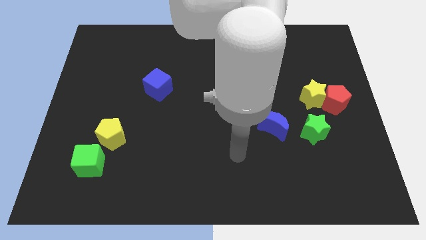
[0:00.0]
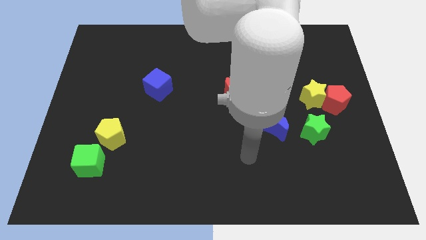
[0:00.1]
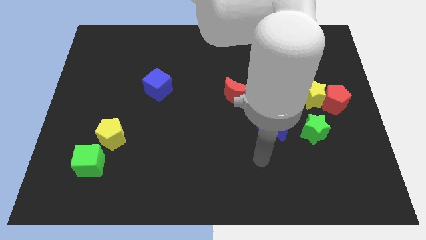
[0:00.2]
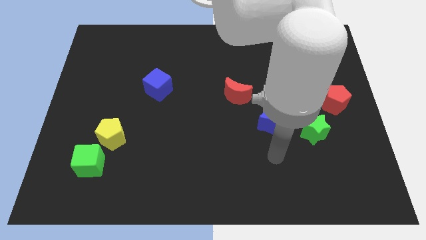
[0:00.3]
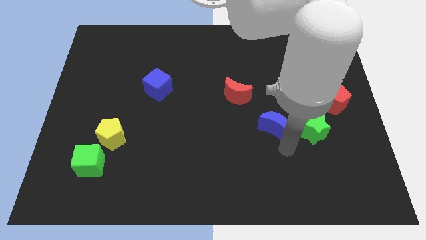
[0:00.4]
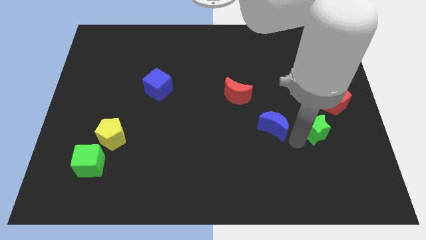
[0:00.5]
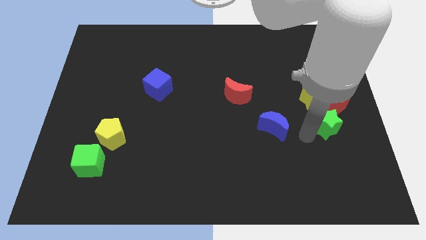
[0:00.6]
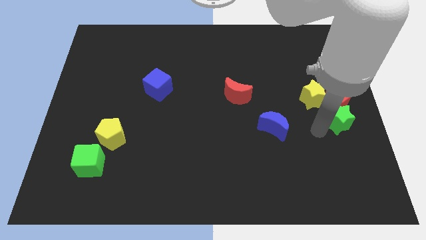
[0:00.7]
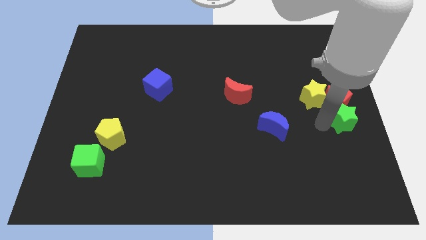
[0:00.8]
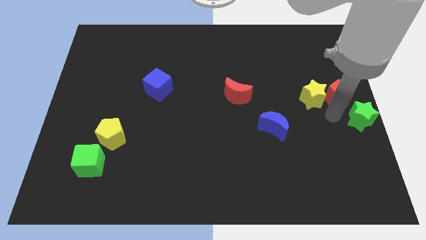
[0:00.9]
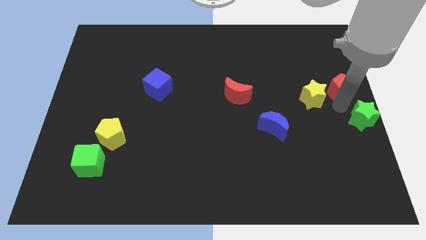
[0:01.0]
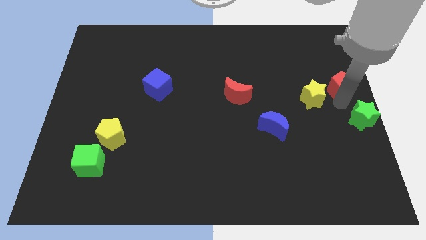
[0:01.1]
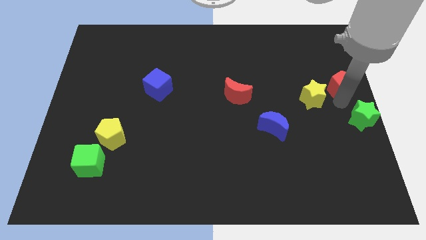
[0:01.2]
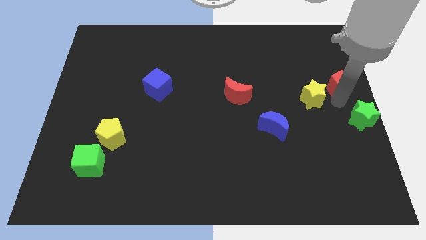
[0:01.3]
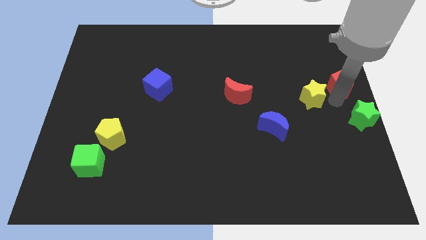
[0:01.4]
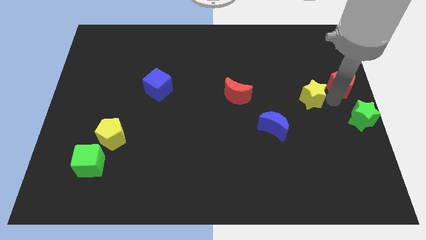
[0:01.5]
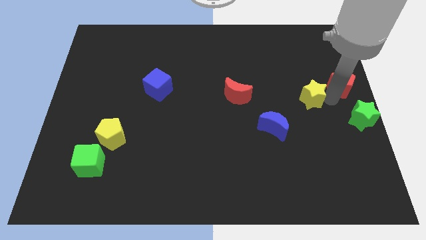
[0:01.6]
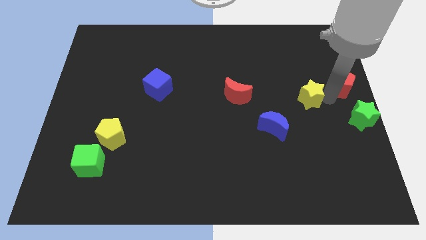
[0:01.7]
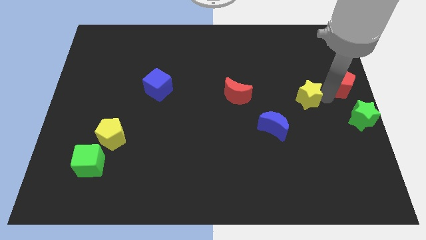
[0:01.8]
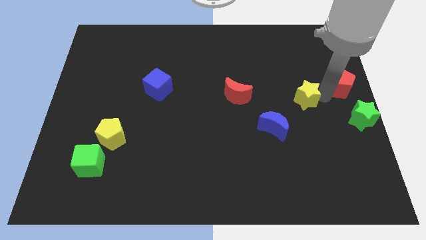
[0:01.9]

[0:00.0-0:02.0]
move the yellow star away from the red pentagon and green star

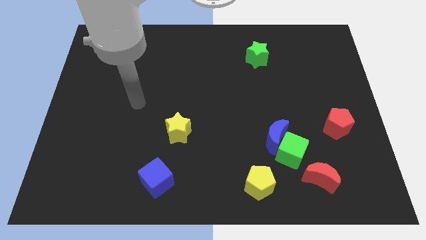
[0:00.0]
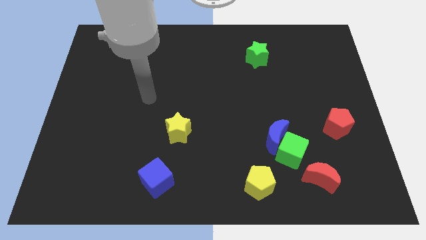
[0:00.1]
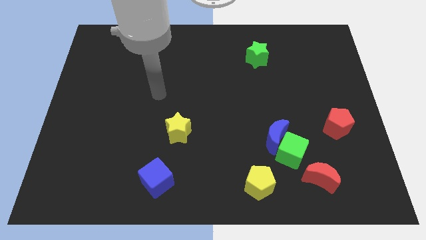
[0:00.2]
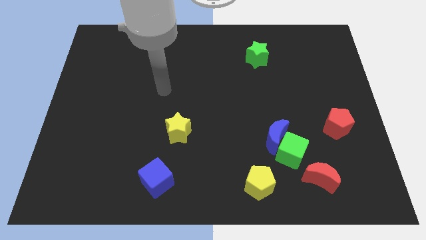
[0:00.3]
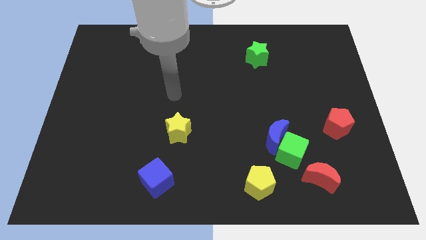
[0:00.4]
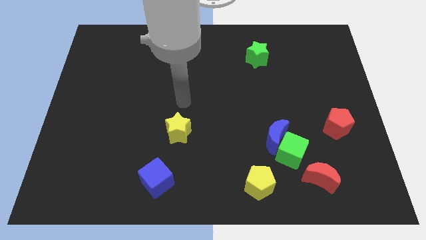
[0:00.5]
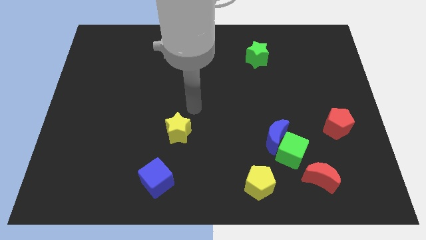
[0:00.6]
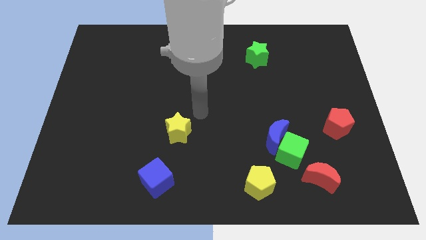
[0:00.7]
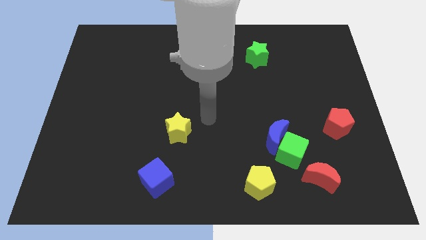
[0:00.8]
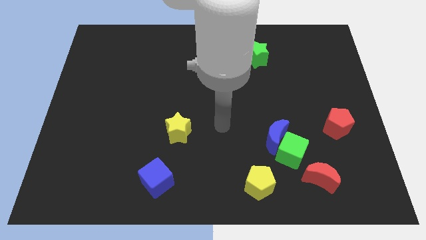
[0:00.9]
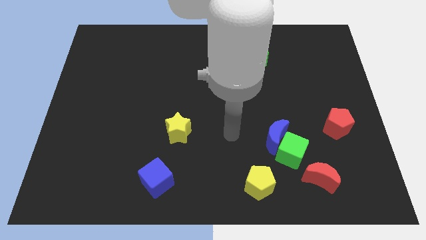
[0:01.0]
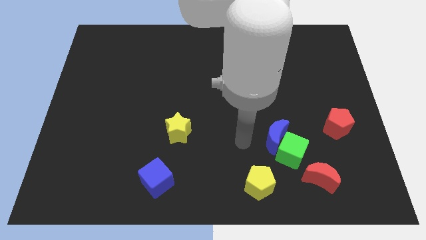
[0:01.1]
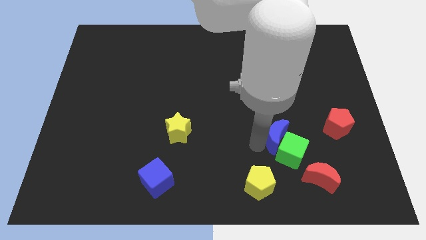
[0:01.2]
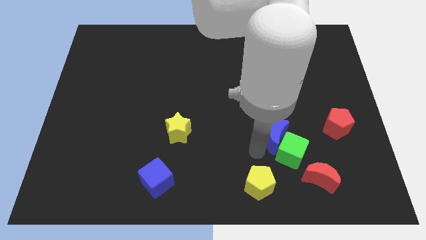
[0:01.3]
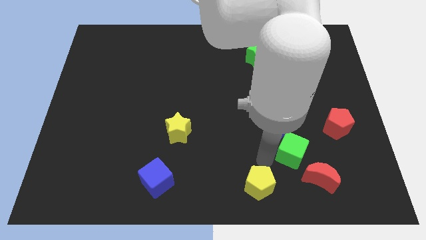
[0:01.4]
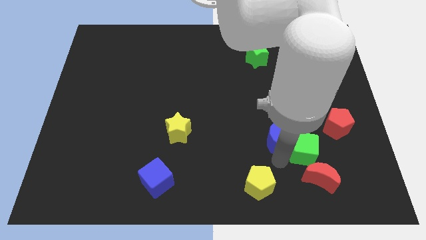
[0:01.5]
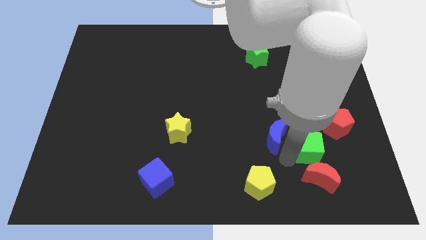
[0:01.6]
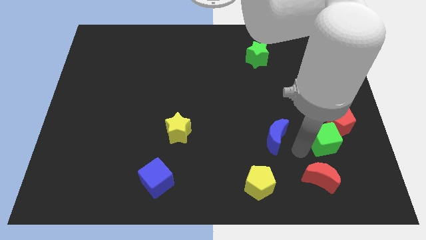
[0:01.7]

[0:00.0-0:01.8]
separate the blue moon from the green cube

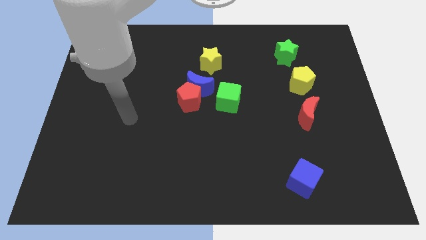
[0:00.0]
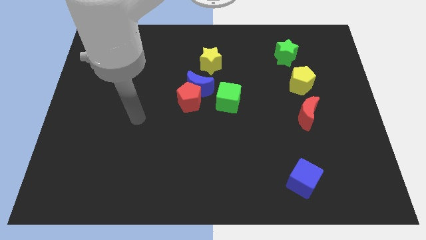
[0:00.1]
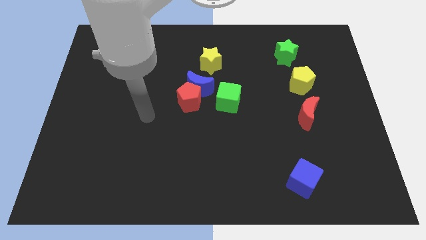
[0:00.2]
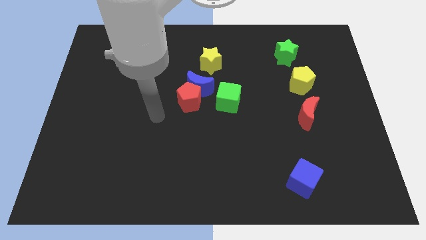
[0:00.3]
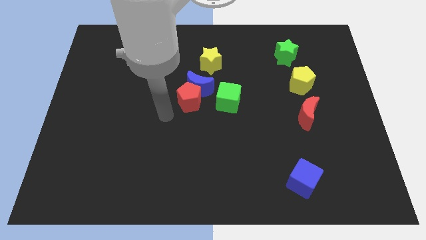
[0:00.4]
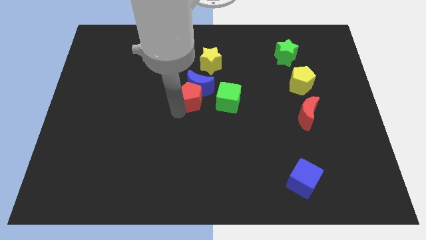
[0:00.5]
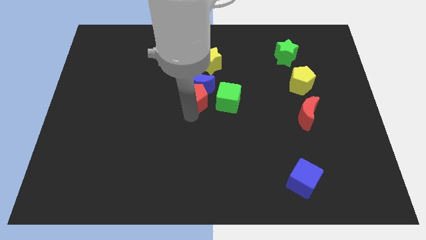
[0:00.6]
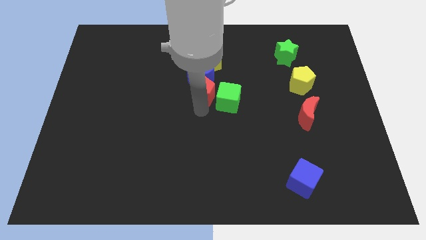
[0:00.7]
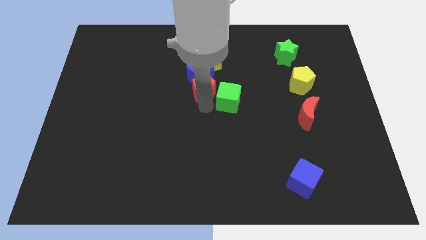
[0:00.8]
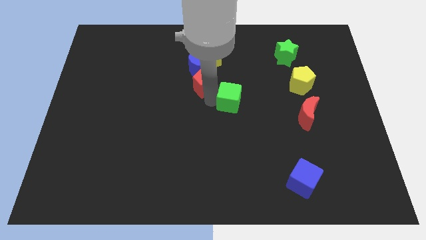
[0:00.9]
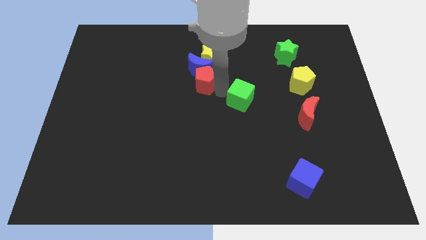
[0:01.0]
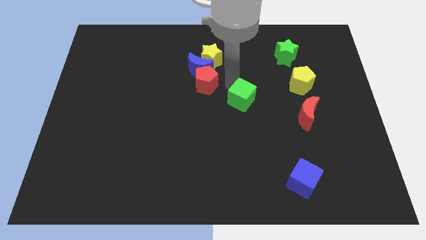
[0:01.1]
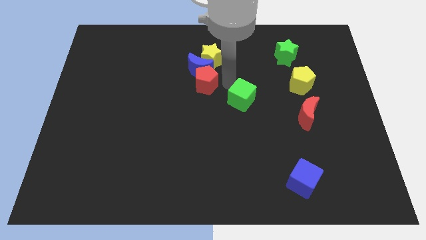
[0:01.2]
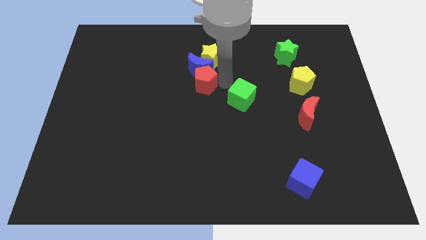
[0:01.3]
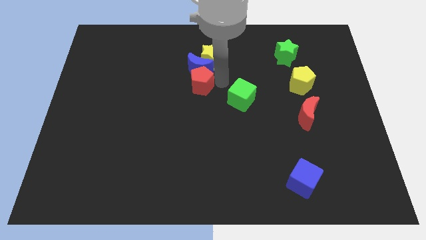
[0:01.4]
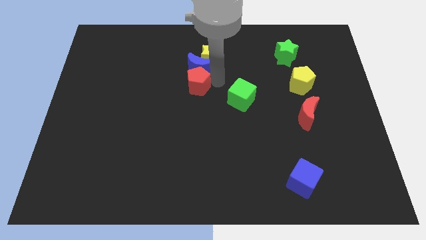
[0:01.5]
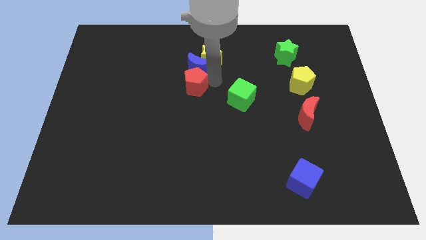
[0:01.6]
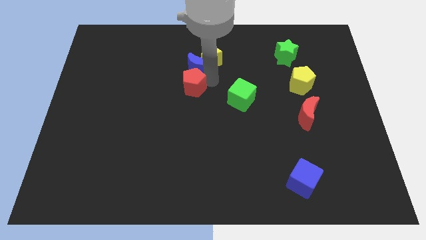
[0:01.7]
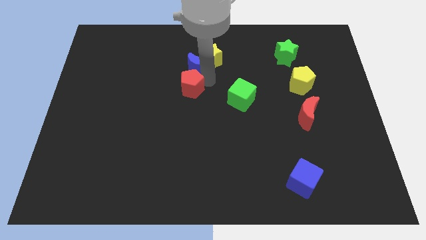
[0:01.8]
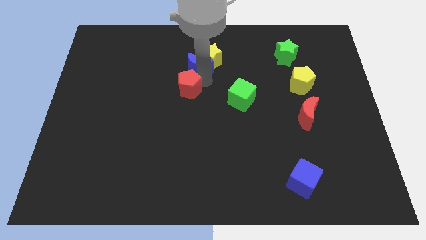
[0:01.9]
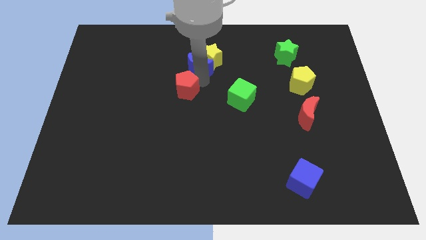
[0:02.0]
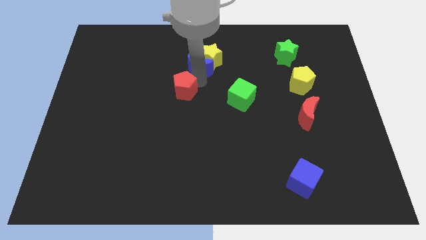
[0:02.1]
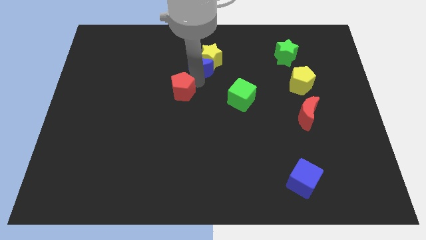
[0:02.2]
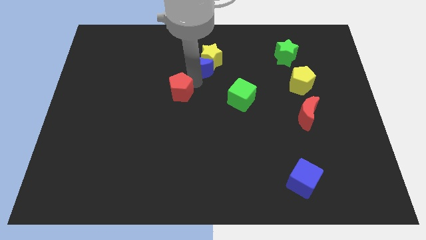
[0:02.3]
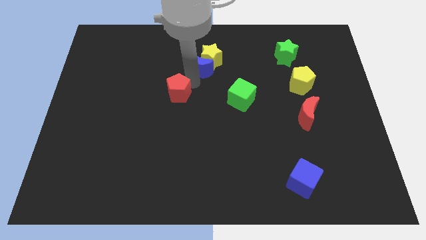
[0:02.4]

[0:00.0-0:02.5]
move the red pentagon away from the blue moon and green cube

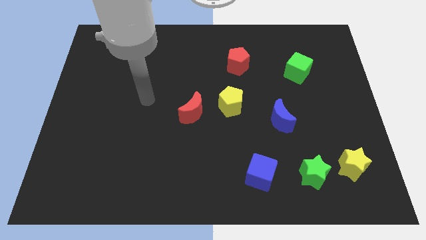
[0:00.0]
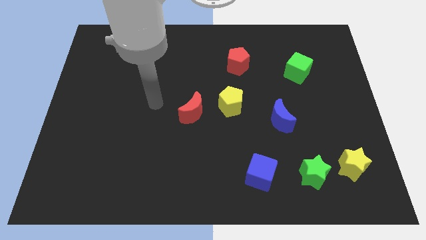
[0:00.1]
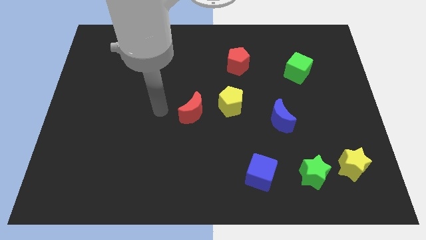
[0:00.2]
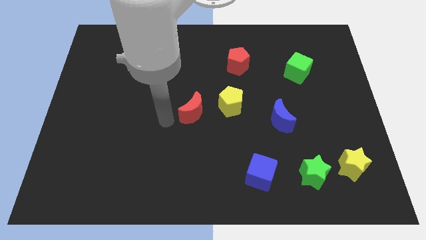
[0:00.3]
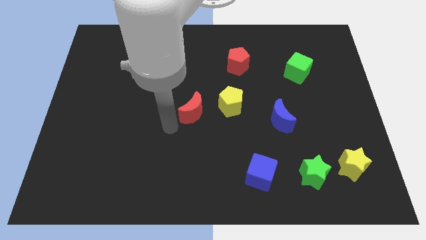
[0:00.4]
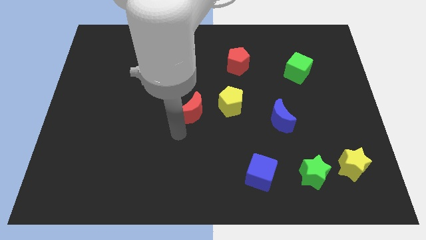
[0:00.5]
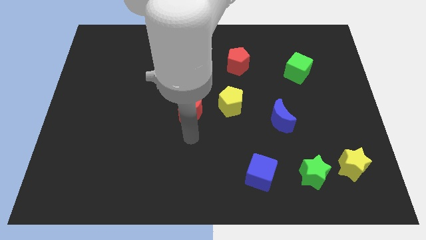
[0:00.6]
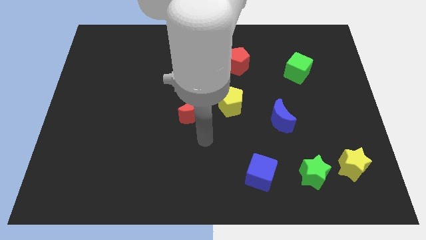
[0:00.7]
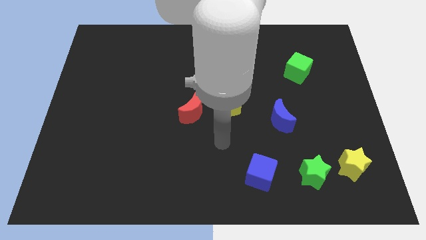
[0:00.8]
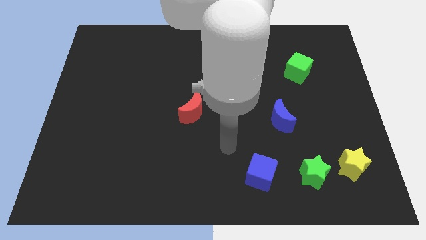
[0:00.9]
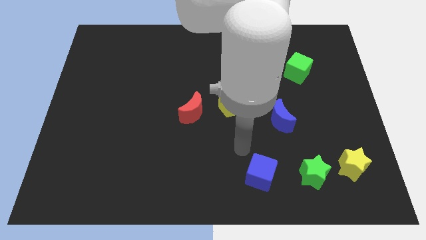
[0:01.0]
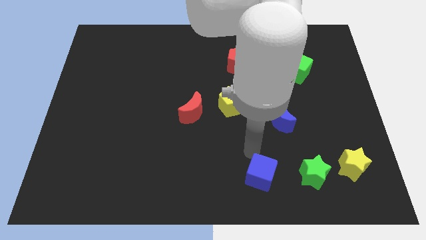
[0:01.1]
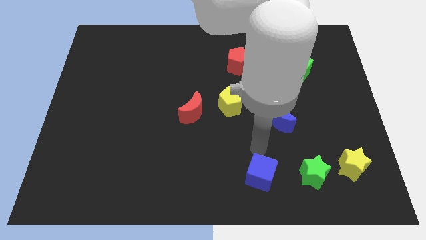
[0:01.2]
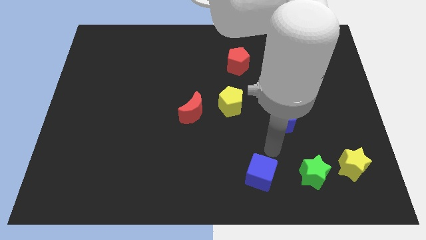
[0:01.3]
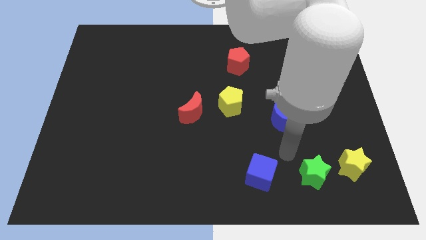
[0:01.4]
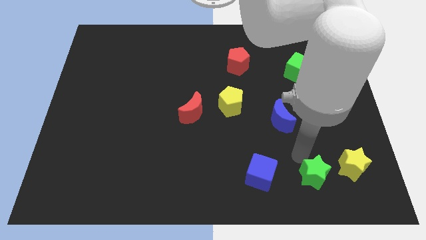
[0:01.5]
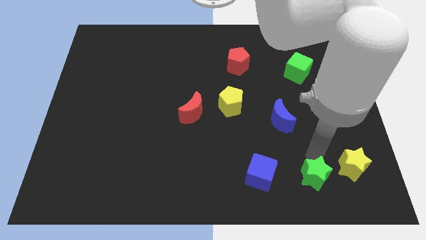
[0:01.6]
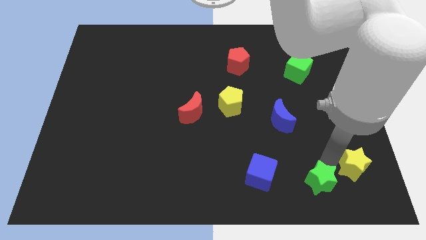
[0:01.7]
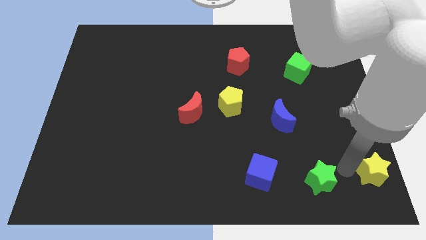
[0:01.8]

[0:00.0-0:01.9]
move the green star away from the yellow star

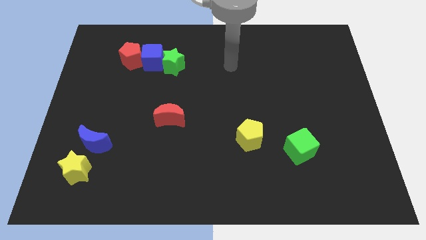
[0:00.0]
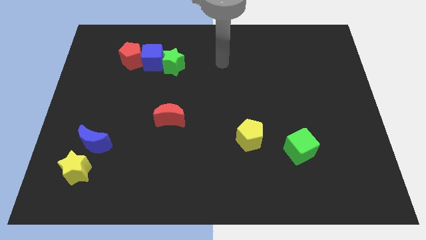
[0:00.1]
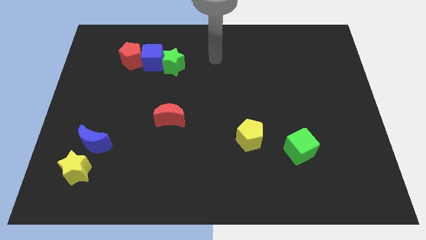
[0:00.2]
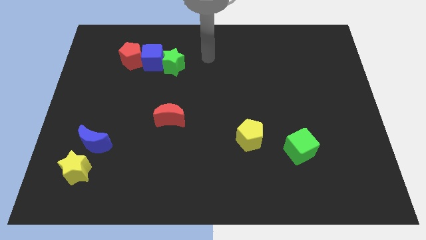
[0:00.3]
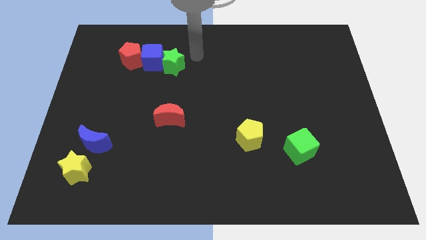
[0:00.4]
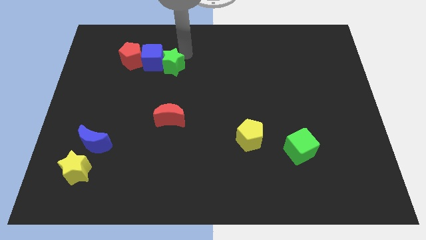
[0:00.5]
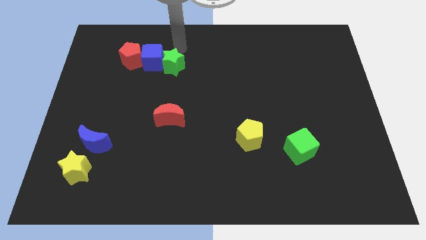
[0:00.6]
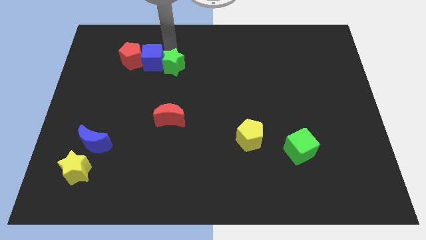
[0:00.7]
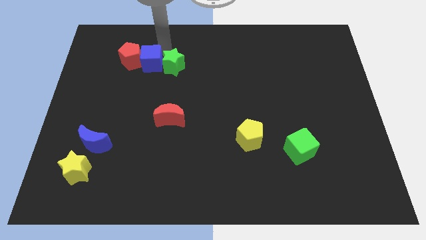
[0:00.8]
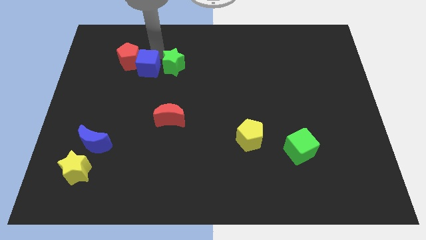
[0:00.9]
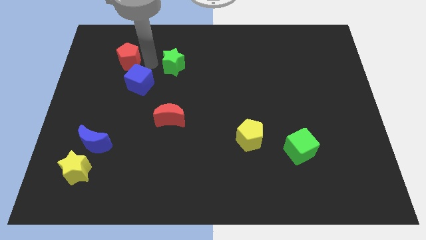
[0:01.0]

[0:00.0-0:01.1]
move the green star away from the blue cube
